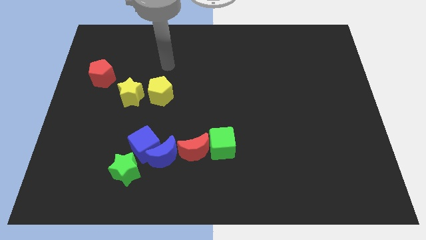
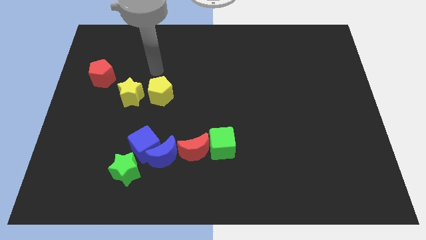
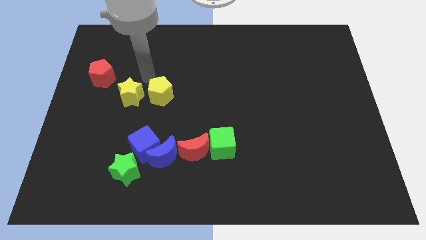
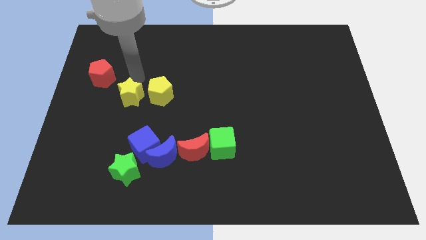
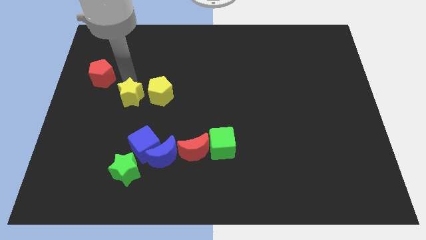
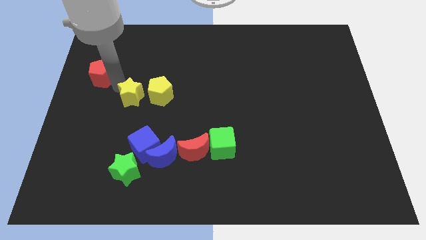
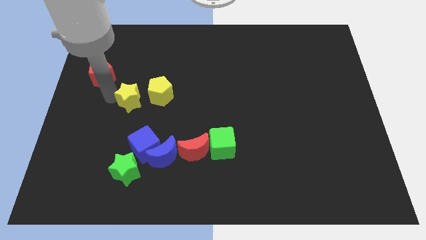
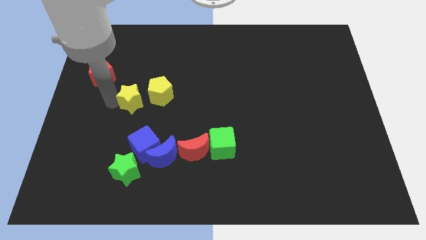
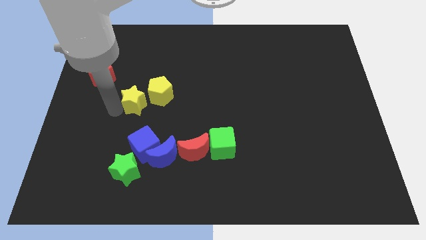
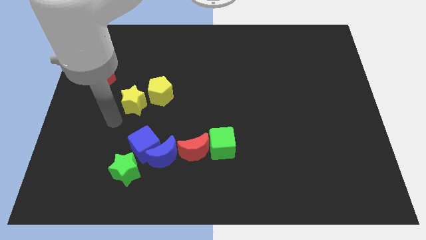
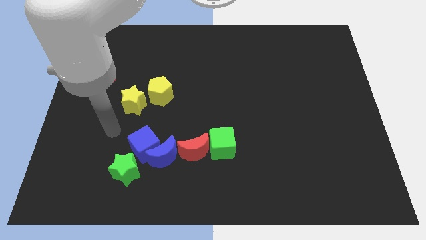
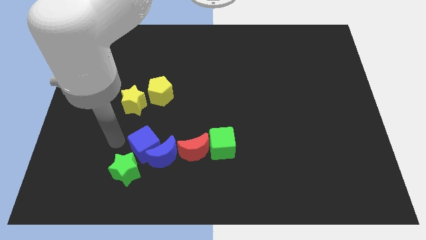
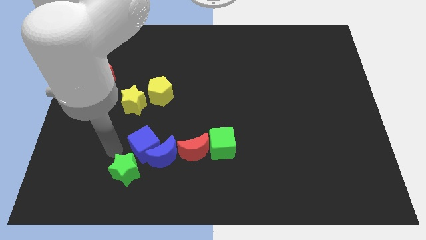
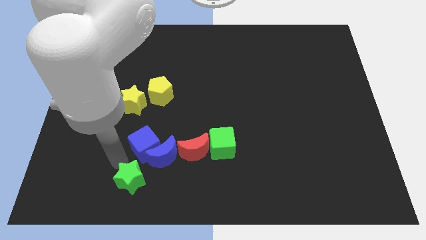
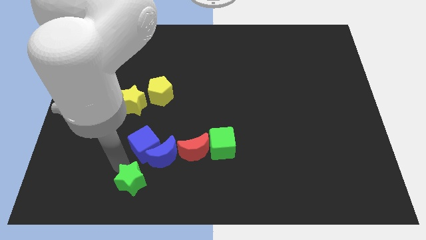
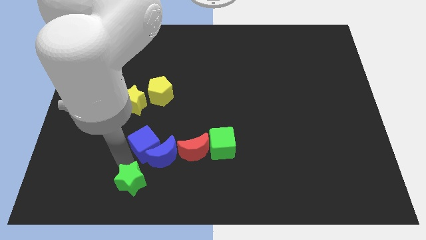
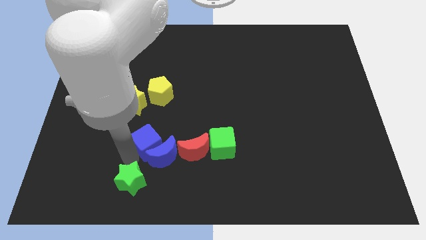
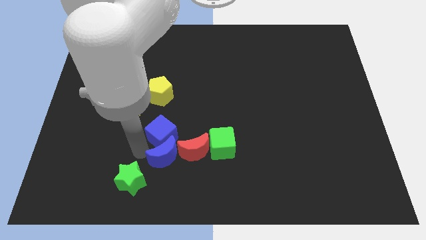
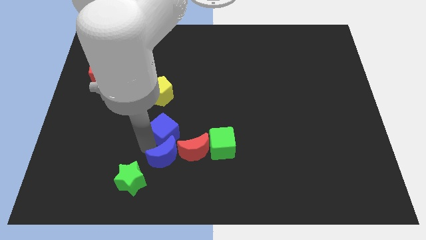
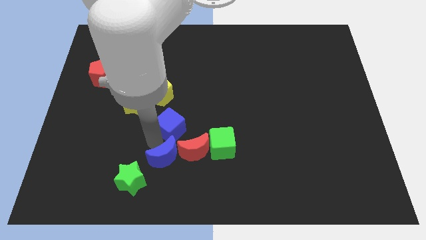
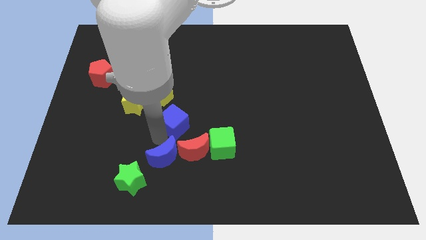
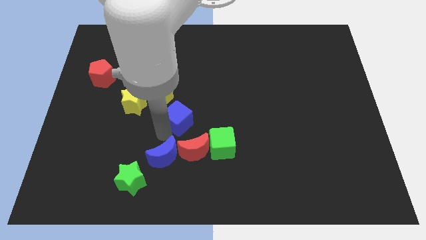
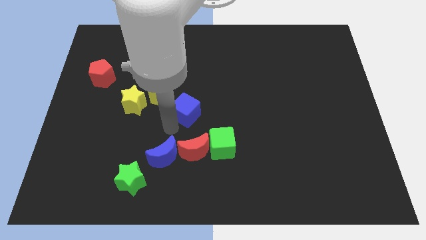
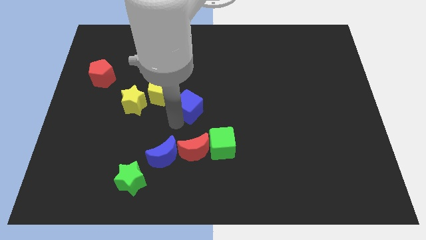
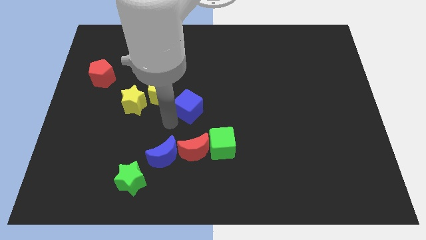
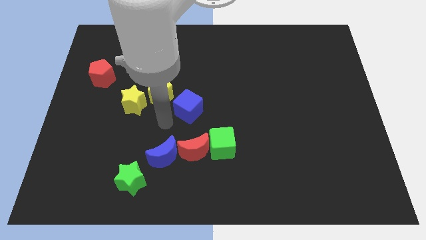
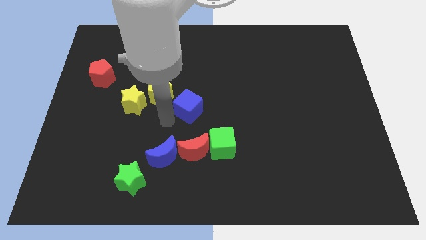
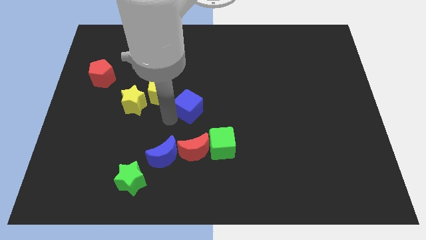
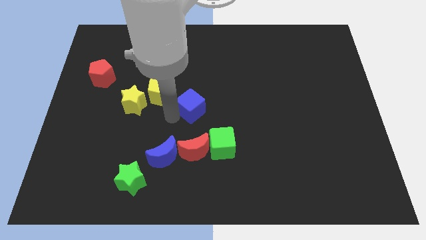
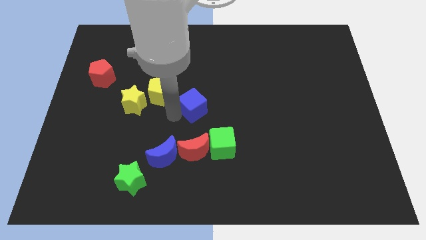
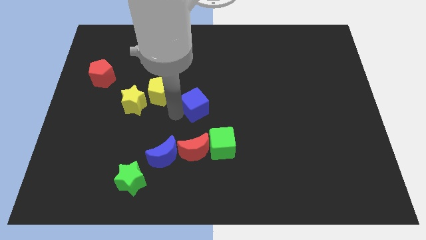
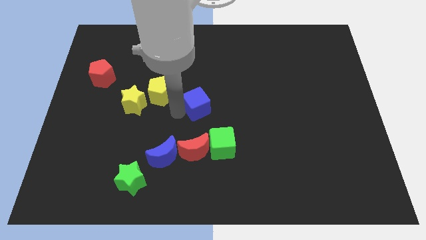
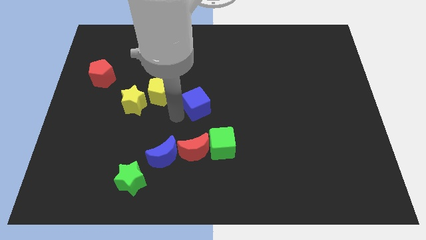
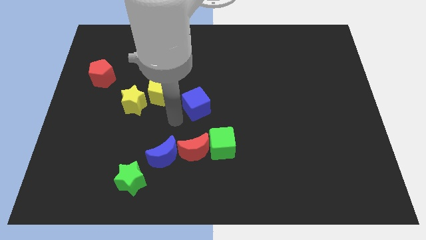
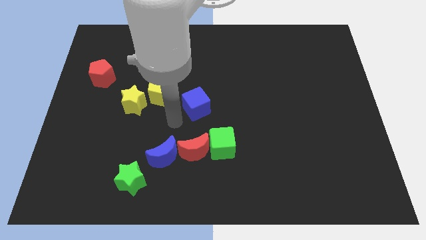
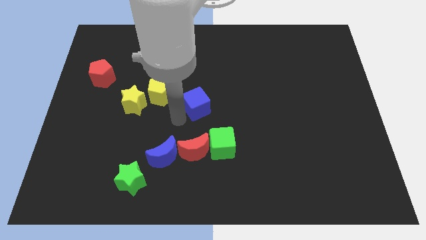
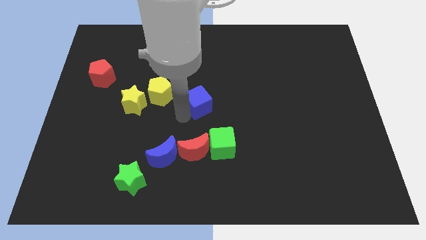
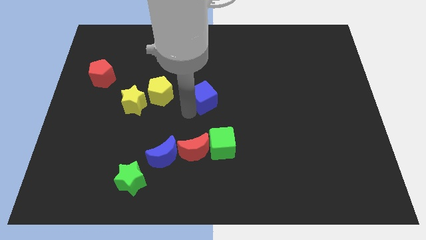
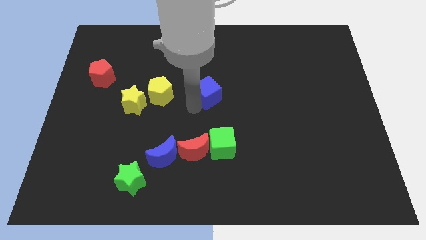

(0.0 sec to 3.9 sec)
slide the blue cube up and then to the right

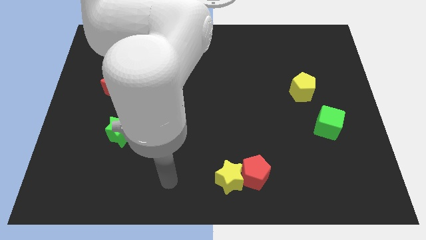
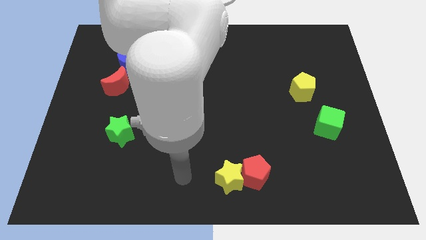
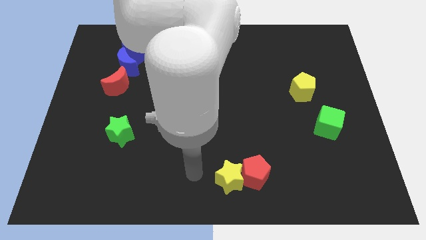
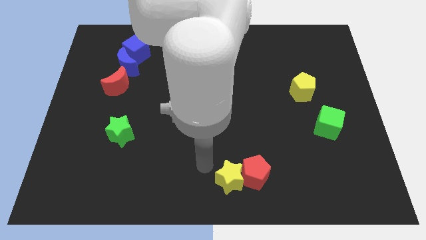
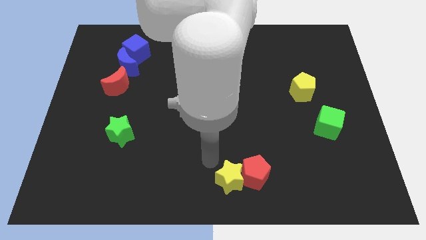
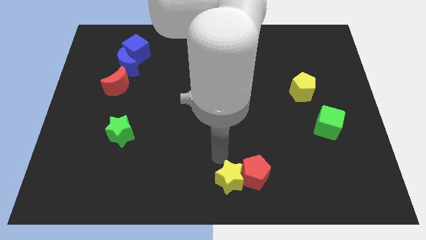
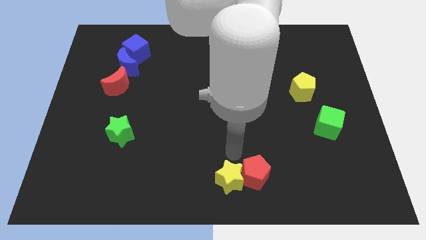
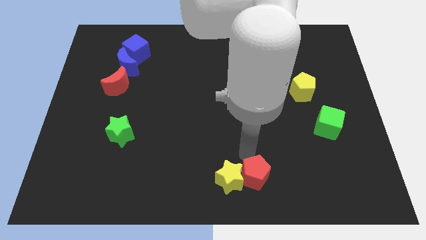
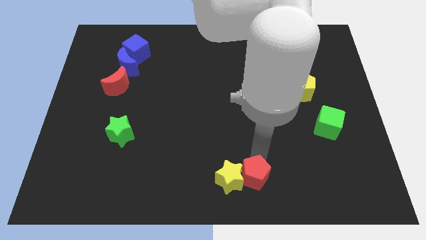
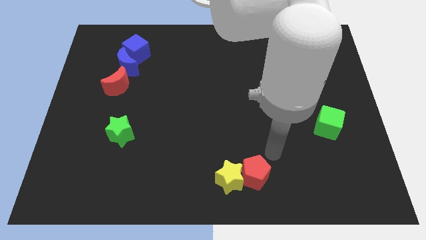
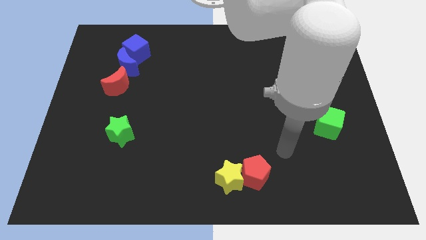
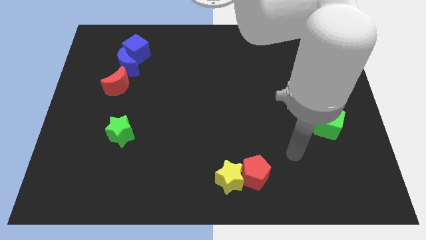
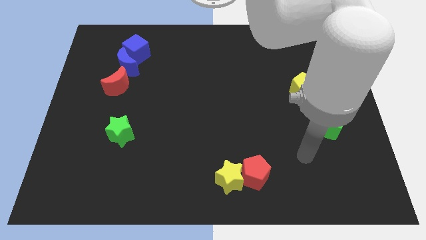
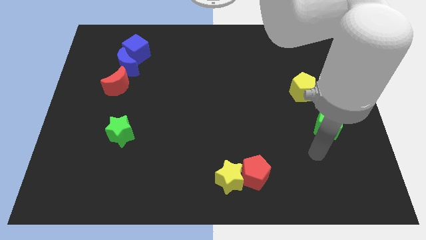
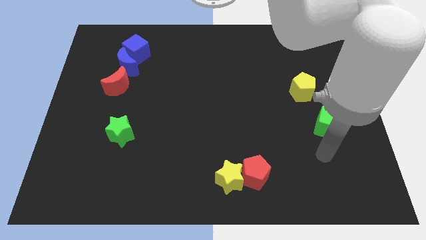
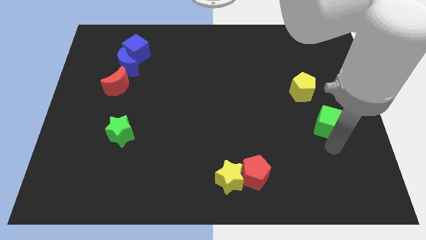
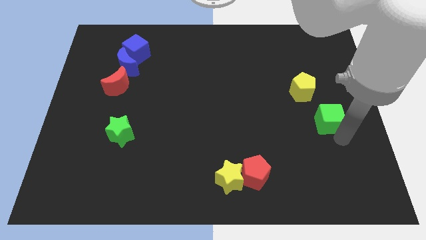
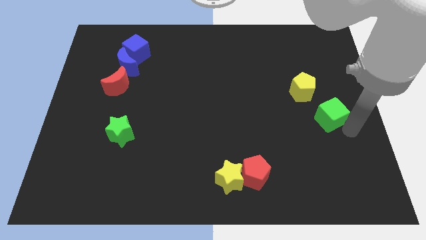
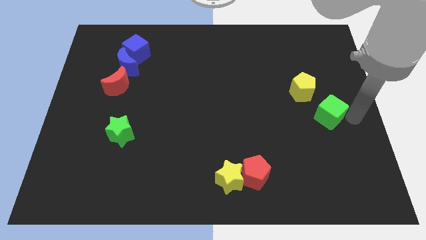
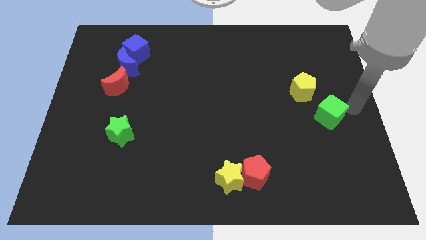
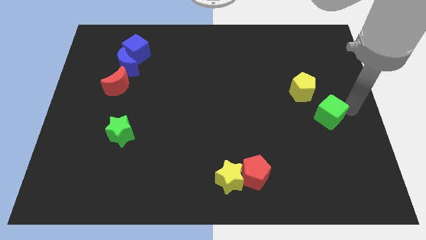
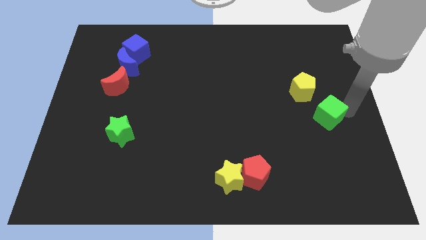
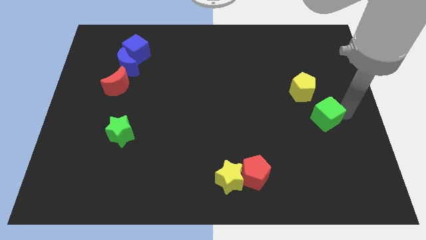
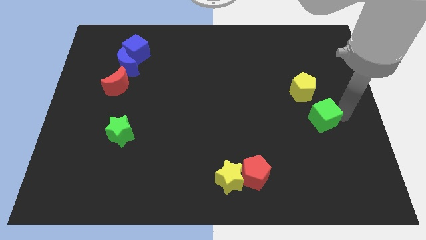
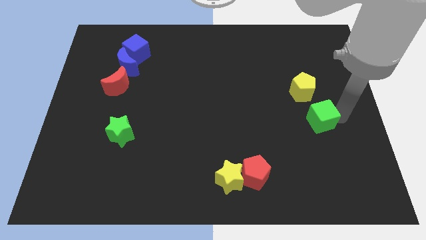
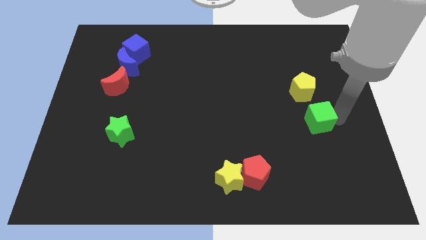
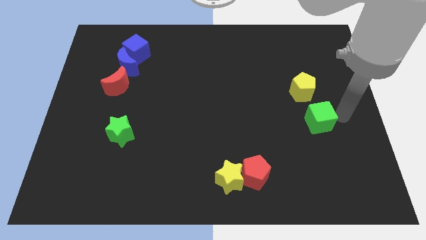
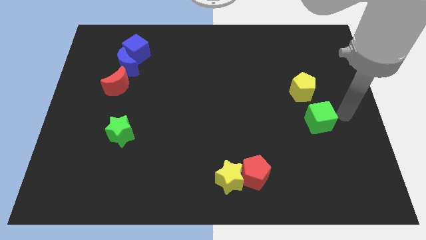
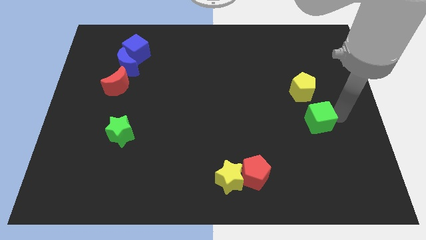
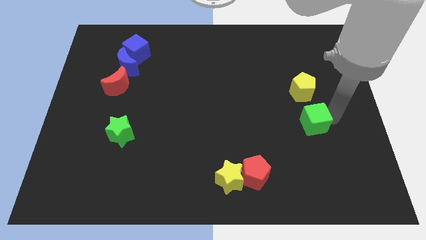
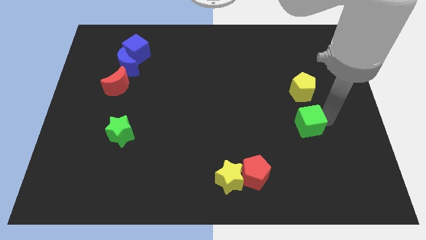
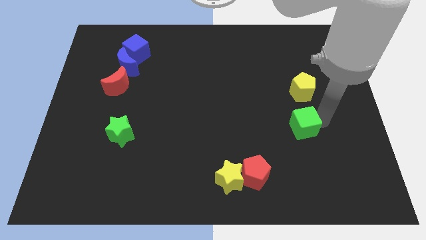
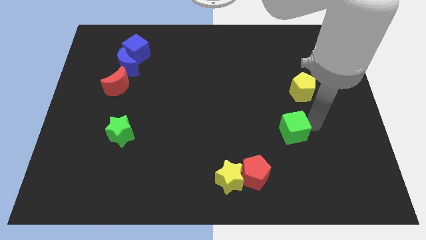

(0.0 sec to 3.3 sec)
move the green cube to the left somewhat

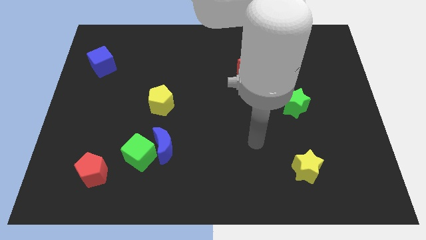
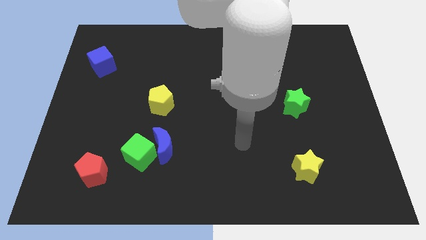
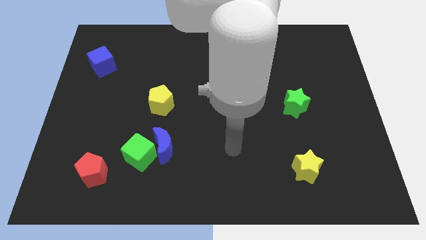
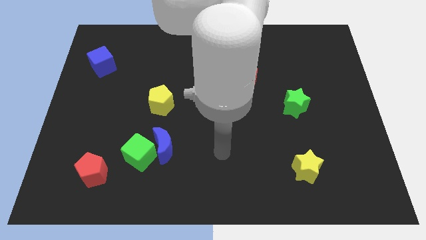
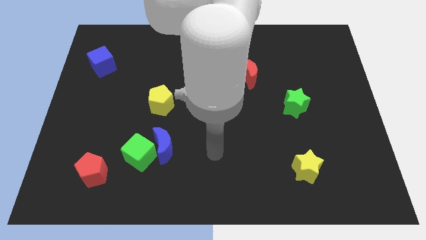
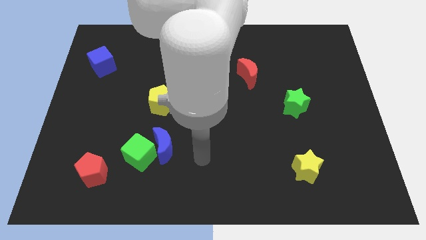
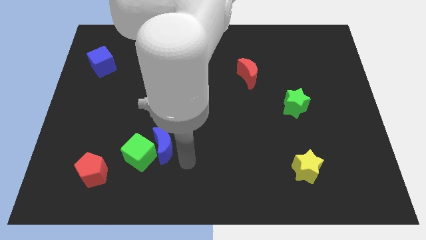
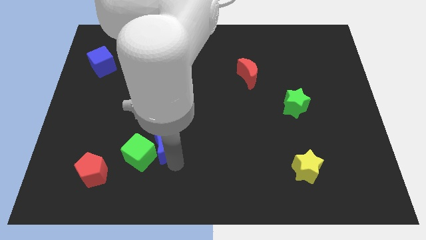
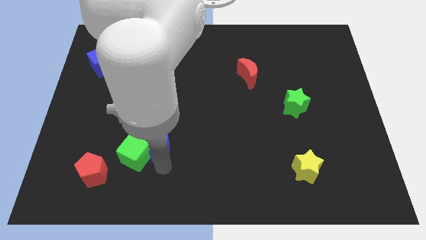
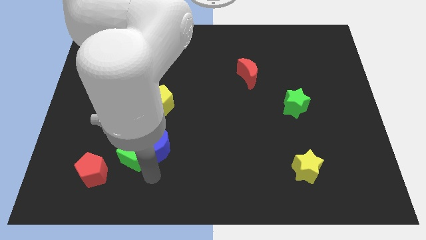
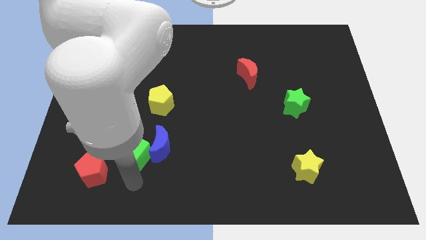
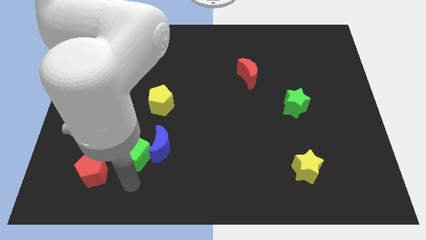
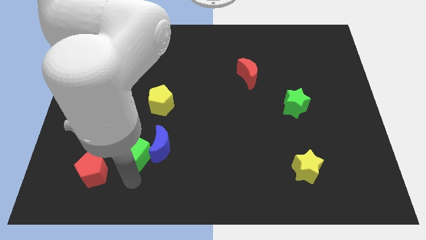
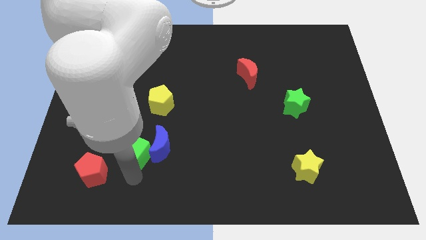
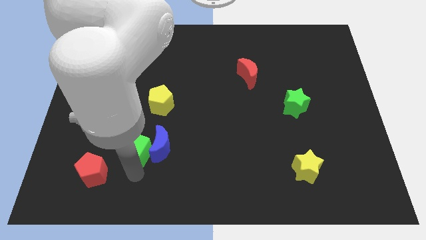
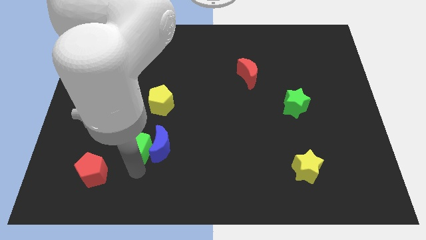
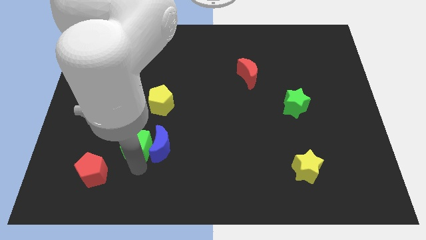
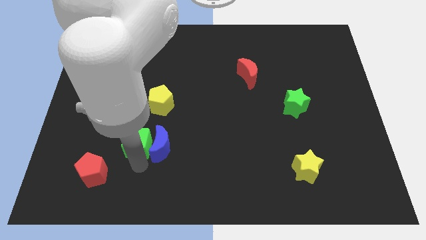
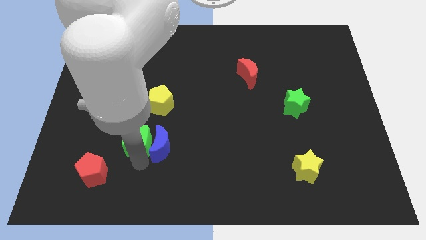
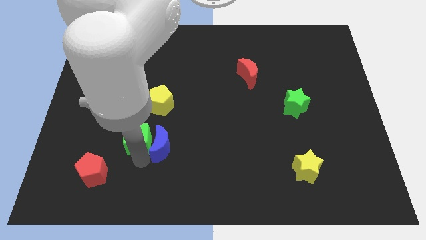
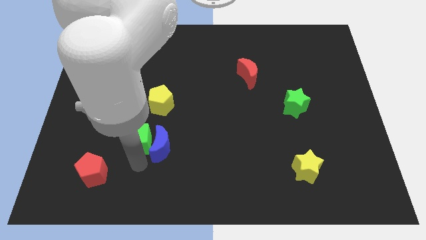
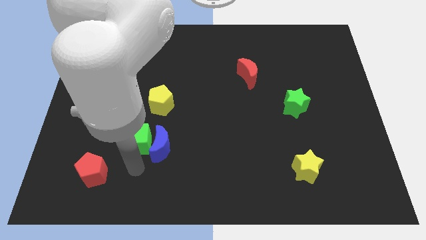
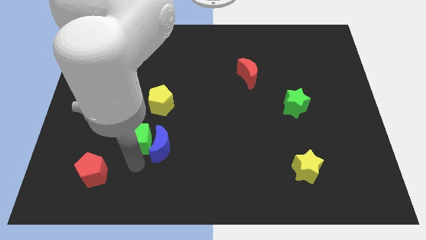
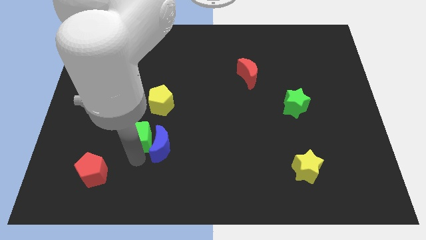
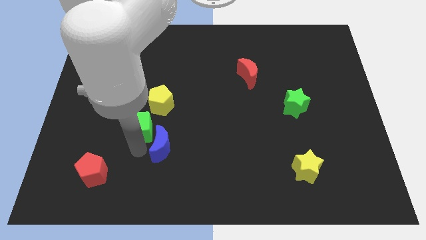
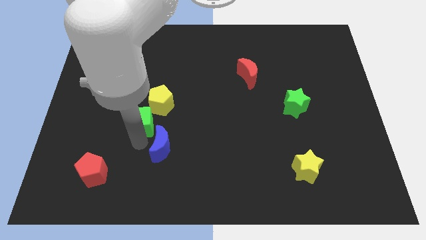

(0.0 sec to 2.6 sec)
push the green cube a little bit up
